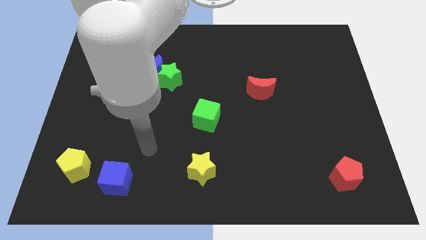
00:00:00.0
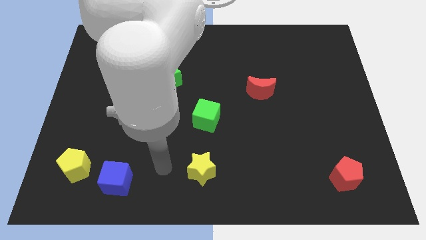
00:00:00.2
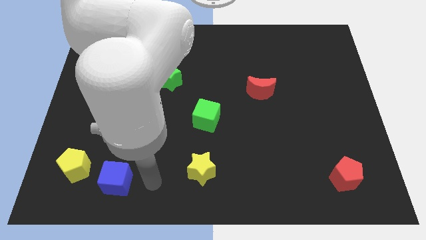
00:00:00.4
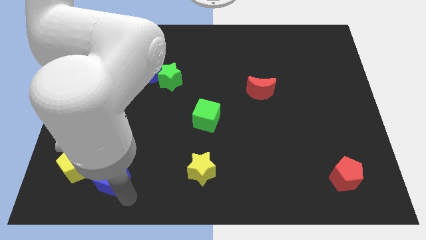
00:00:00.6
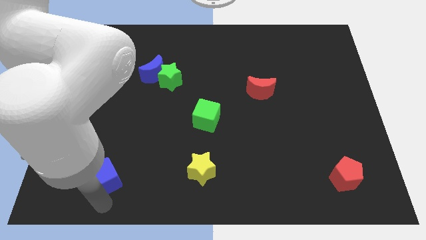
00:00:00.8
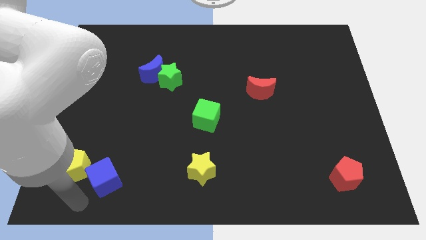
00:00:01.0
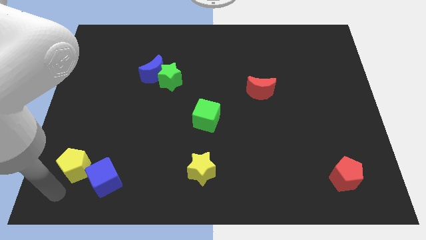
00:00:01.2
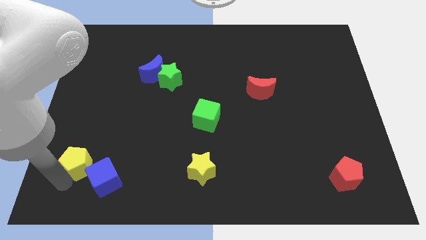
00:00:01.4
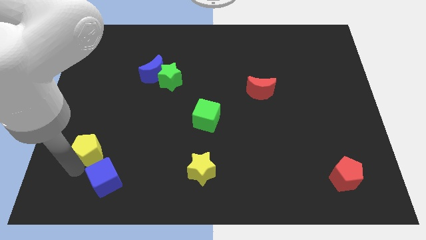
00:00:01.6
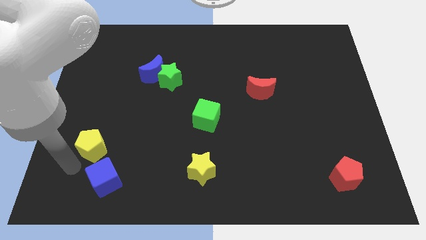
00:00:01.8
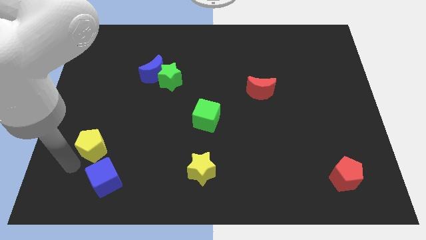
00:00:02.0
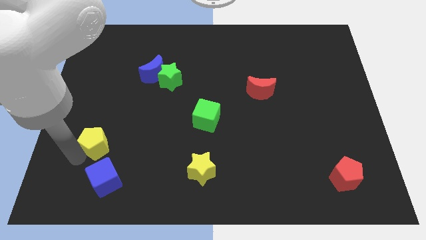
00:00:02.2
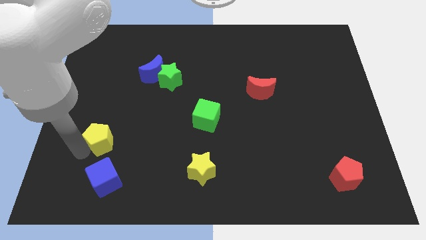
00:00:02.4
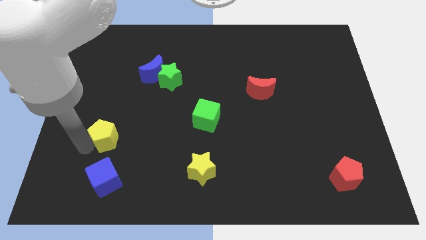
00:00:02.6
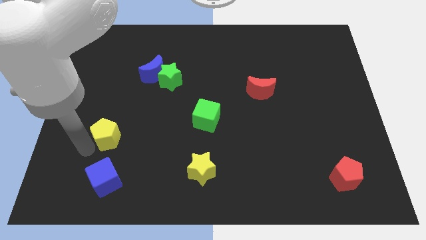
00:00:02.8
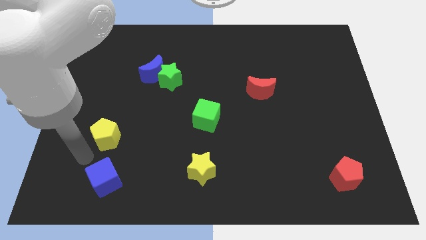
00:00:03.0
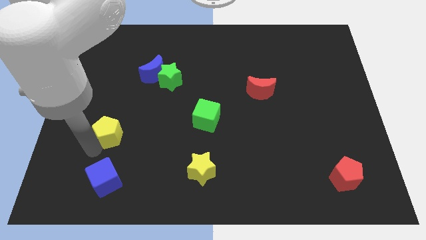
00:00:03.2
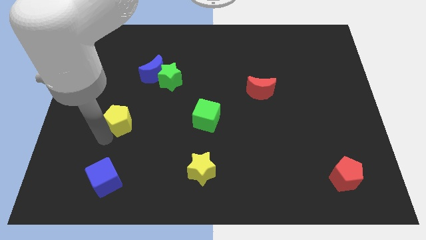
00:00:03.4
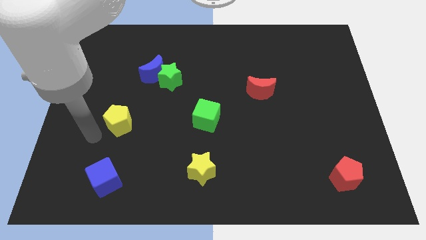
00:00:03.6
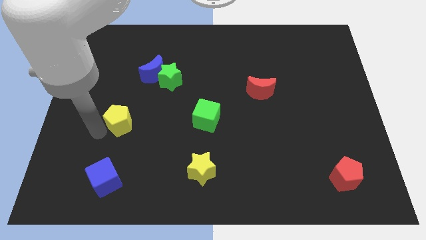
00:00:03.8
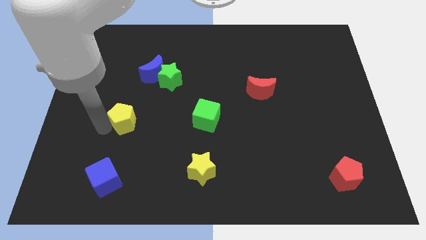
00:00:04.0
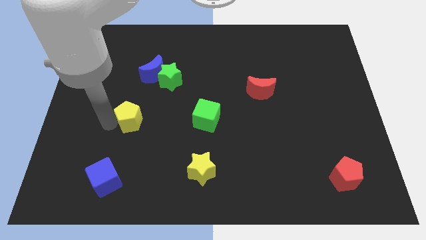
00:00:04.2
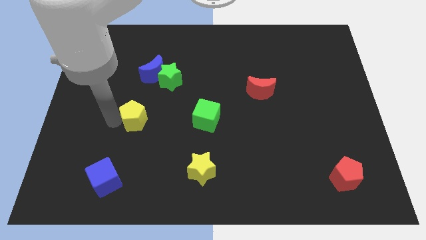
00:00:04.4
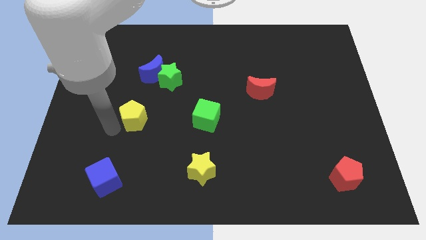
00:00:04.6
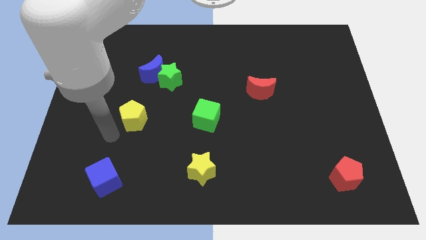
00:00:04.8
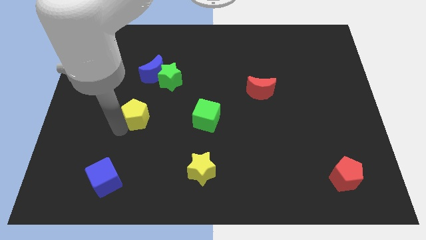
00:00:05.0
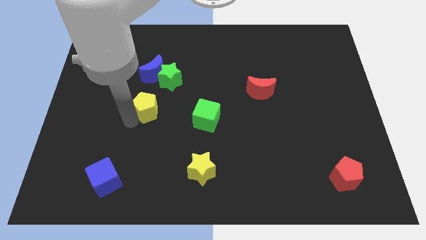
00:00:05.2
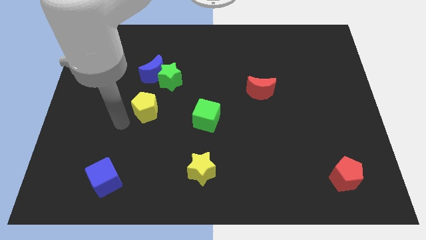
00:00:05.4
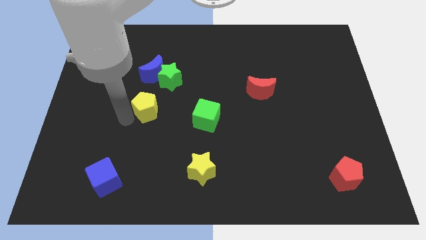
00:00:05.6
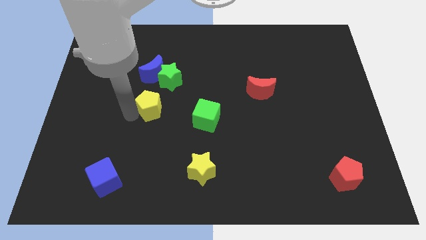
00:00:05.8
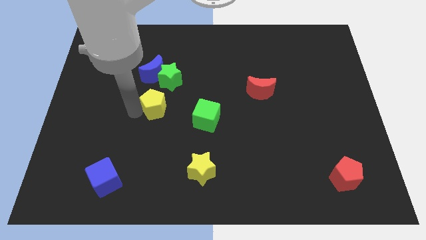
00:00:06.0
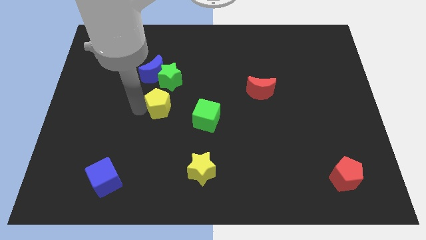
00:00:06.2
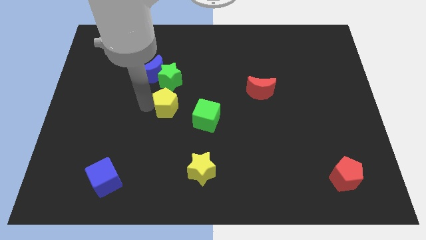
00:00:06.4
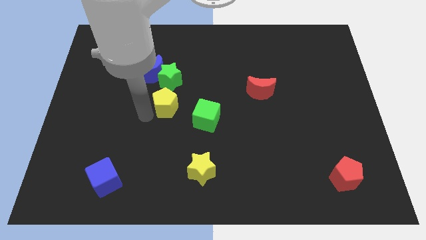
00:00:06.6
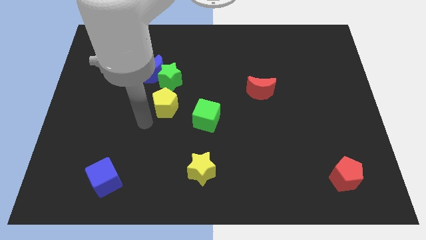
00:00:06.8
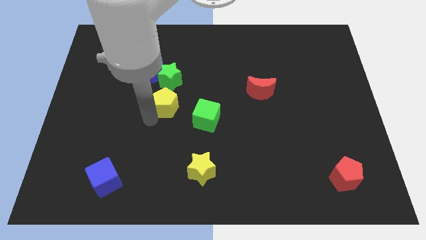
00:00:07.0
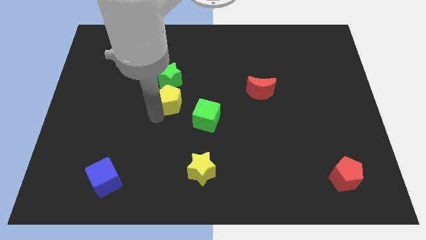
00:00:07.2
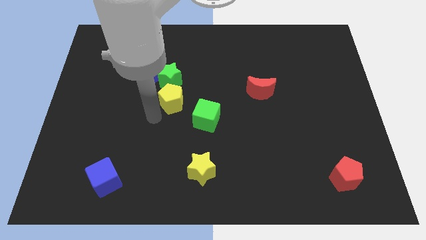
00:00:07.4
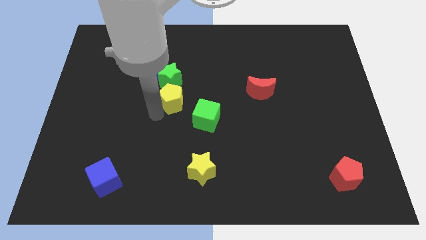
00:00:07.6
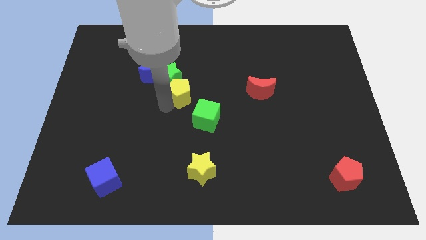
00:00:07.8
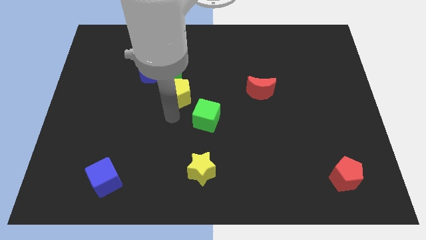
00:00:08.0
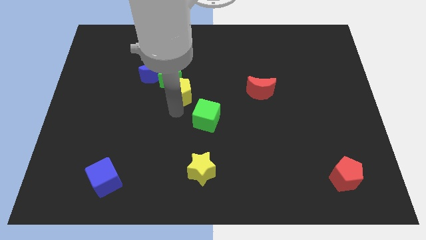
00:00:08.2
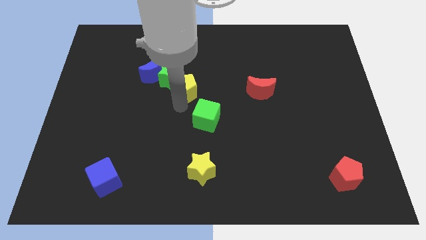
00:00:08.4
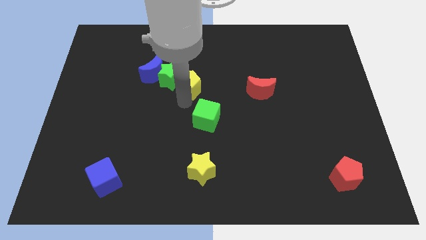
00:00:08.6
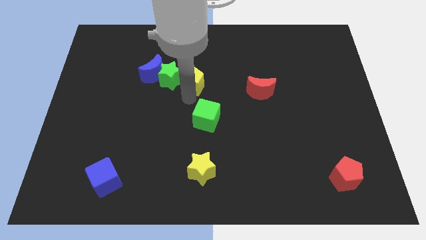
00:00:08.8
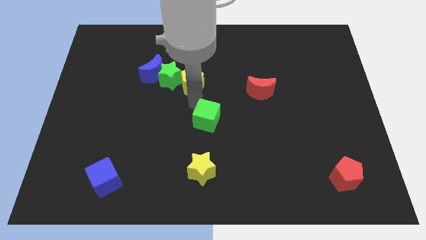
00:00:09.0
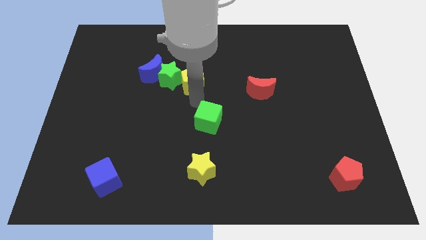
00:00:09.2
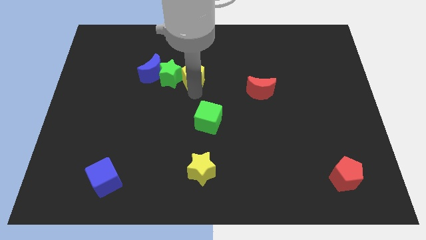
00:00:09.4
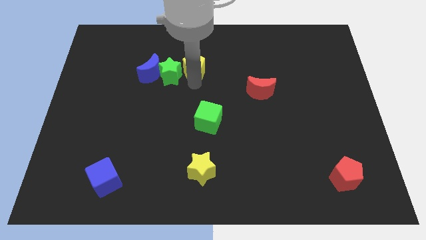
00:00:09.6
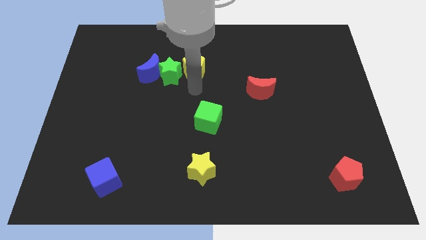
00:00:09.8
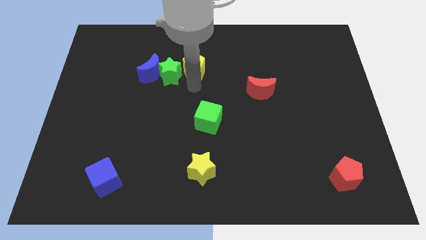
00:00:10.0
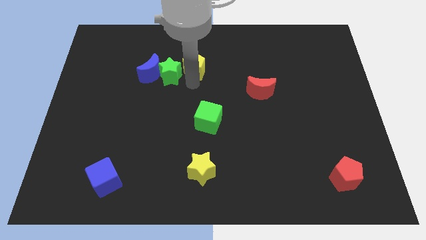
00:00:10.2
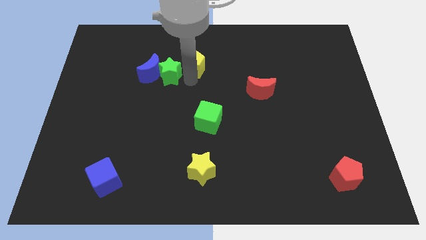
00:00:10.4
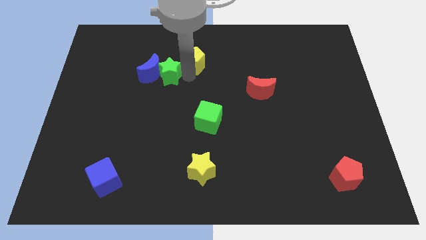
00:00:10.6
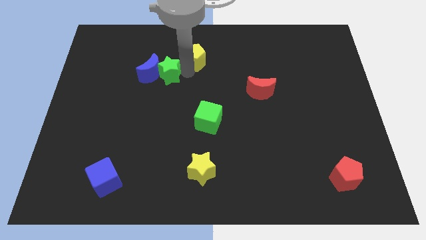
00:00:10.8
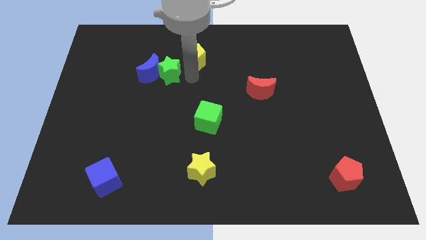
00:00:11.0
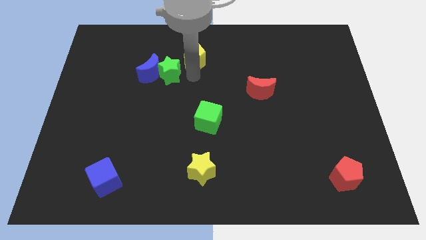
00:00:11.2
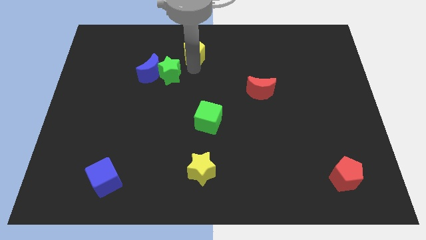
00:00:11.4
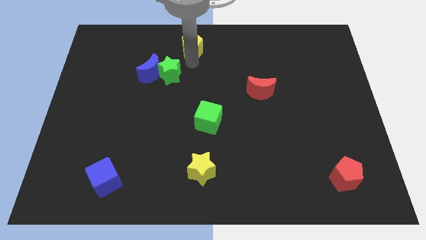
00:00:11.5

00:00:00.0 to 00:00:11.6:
slide the yellow pentagon to the top
